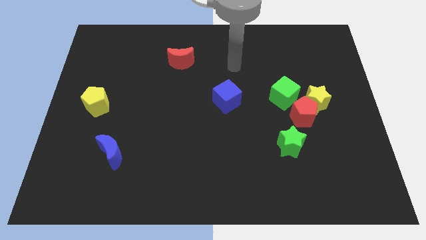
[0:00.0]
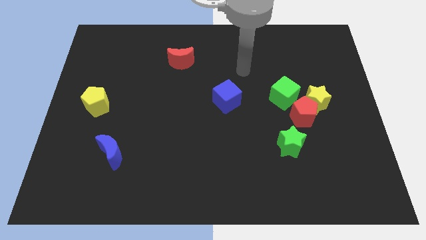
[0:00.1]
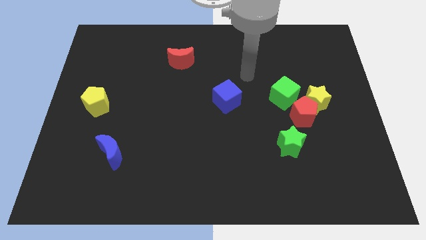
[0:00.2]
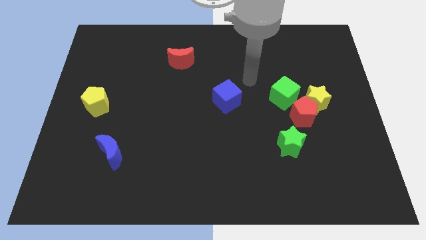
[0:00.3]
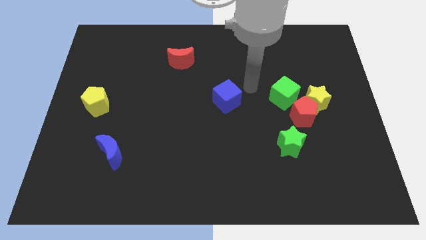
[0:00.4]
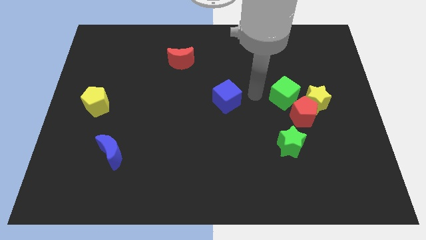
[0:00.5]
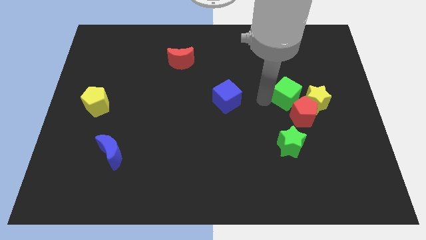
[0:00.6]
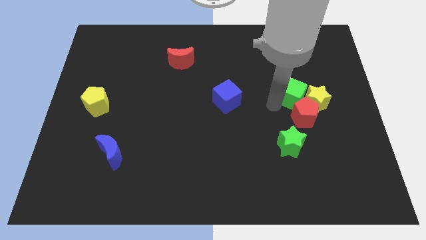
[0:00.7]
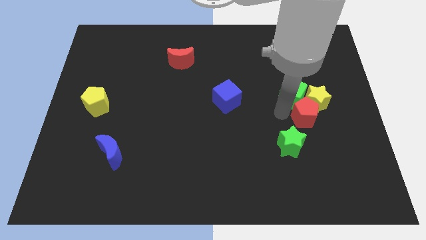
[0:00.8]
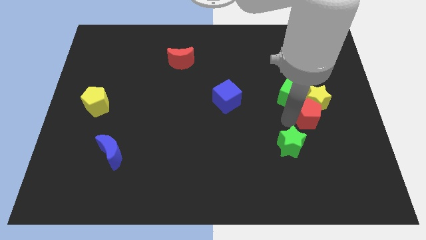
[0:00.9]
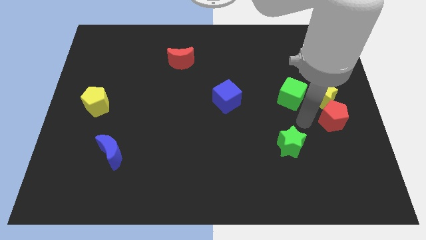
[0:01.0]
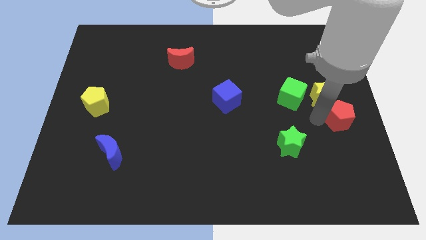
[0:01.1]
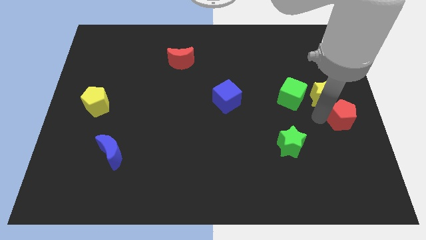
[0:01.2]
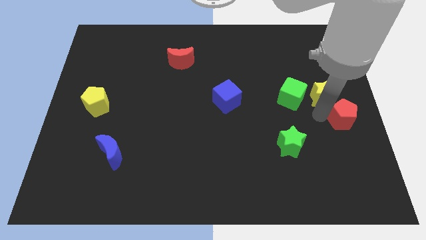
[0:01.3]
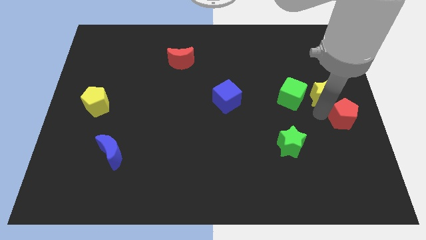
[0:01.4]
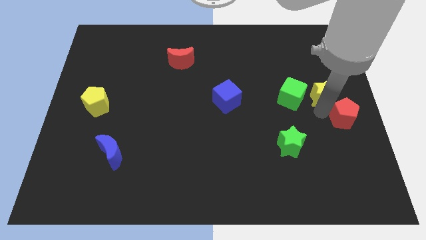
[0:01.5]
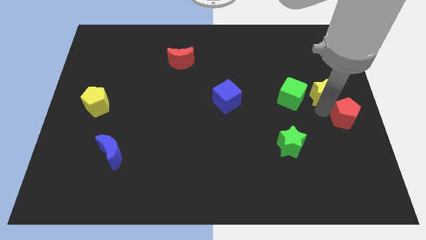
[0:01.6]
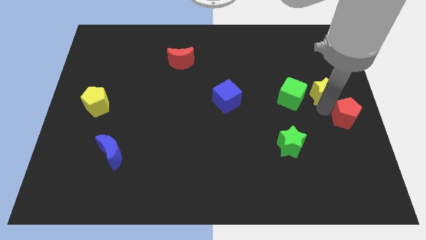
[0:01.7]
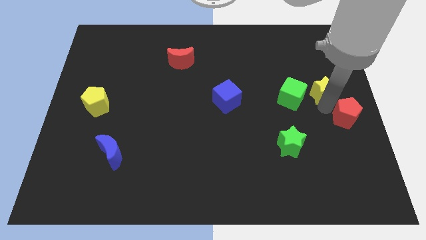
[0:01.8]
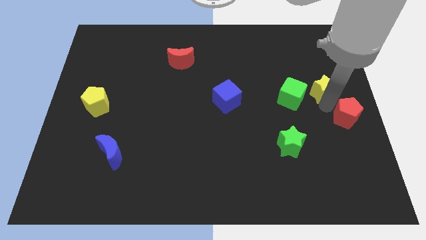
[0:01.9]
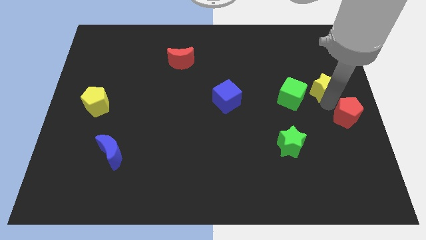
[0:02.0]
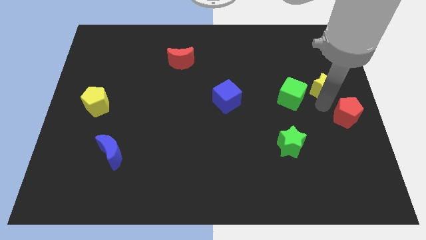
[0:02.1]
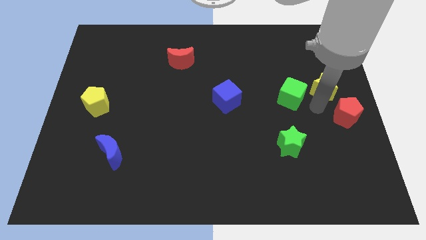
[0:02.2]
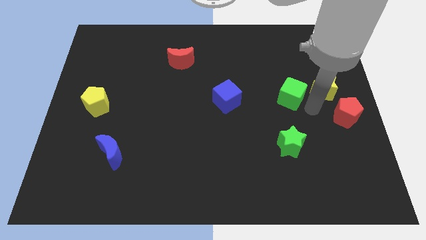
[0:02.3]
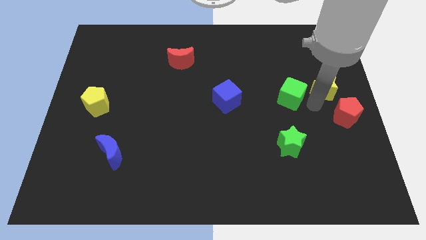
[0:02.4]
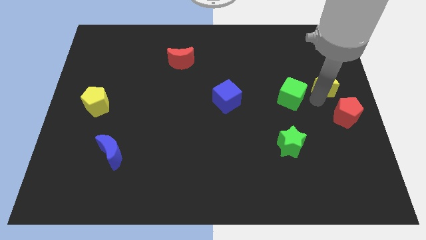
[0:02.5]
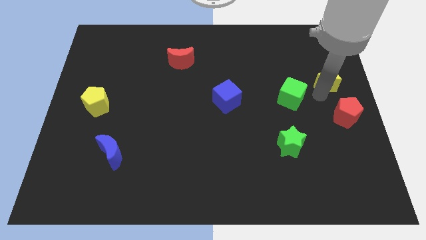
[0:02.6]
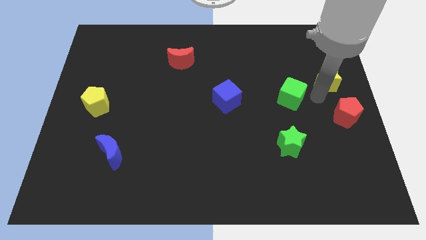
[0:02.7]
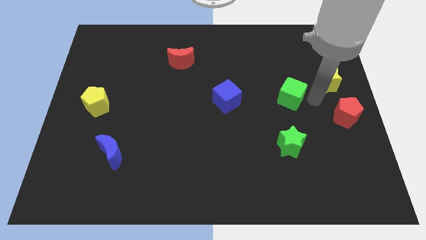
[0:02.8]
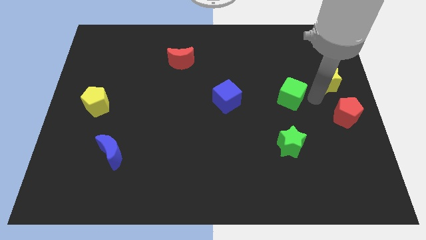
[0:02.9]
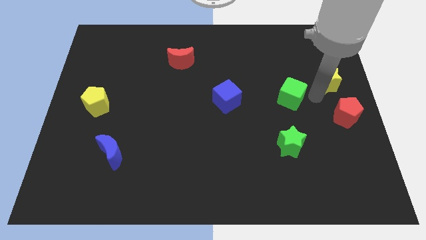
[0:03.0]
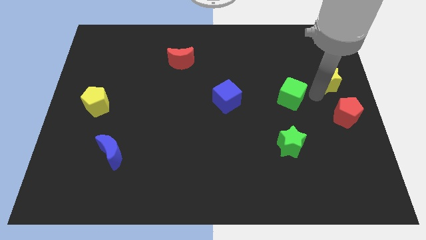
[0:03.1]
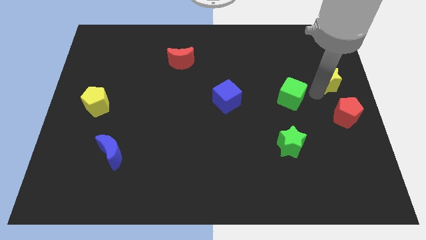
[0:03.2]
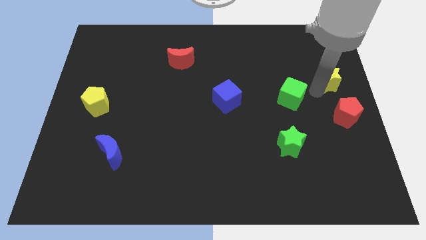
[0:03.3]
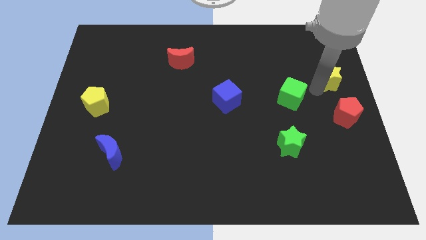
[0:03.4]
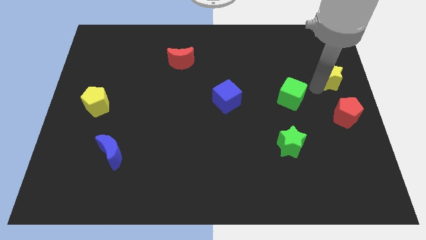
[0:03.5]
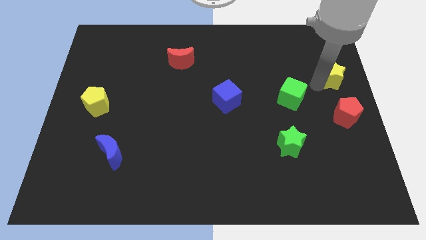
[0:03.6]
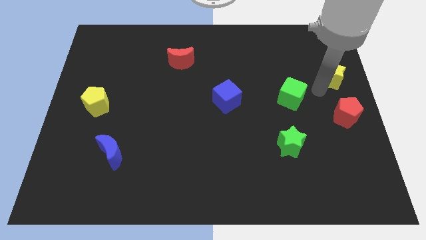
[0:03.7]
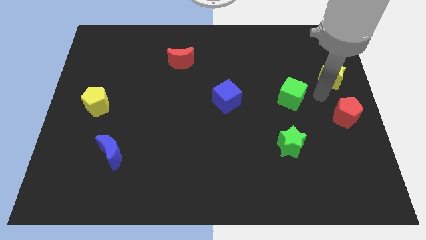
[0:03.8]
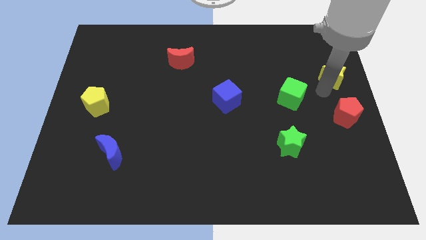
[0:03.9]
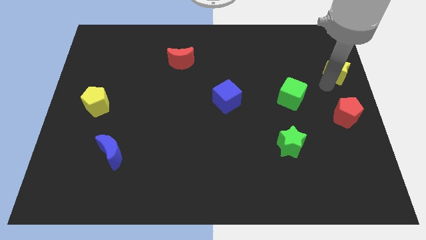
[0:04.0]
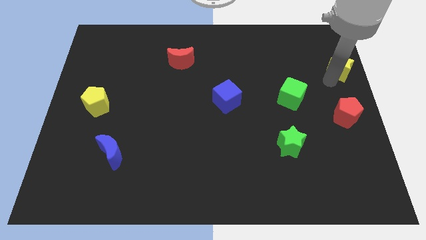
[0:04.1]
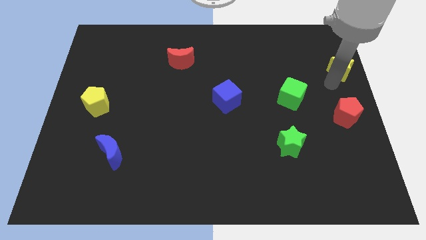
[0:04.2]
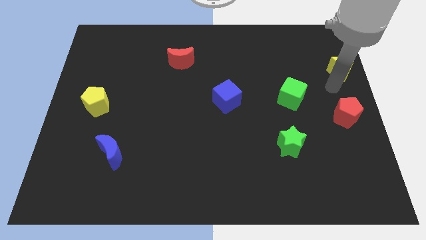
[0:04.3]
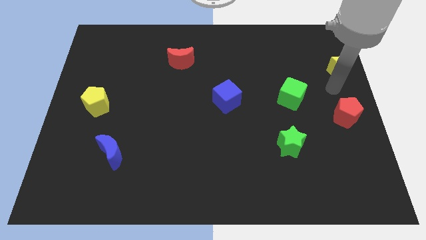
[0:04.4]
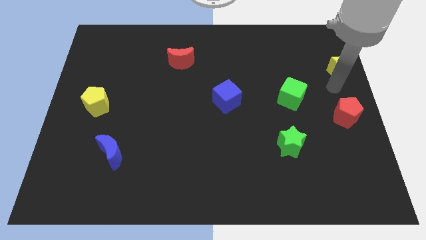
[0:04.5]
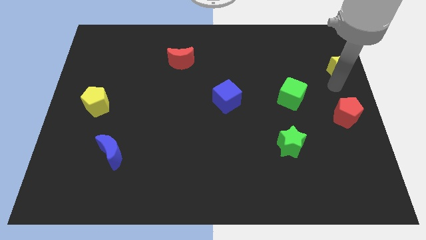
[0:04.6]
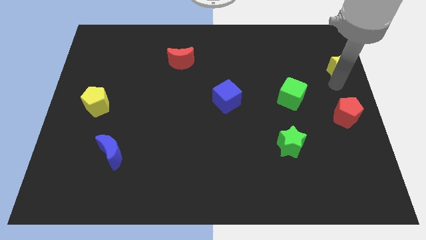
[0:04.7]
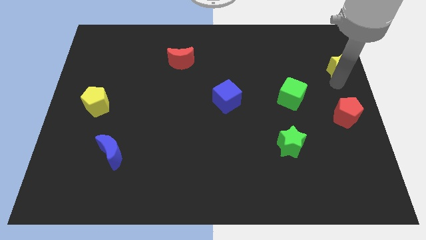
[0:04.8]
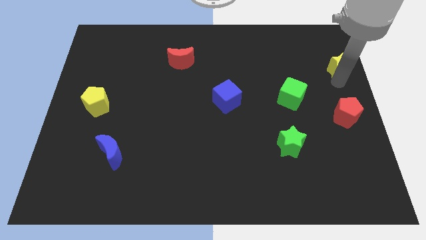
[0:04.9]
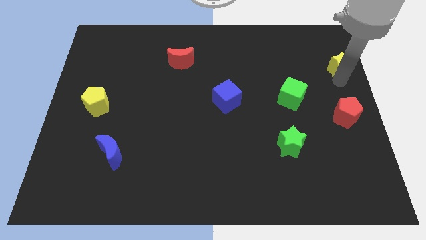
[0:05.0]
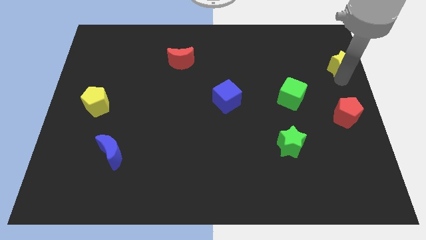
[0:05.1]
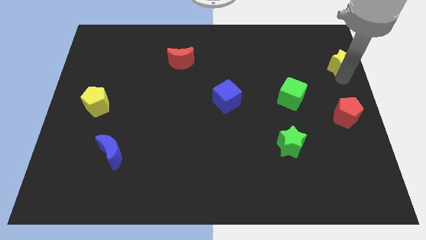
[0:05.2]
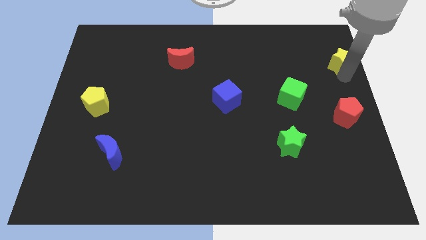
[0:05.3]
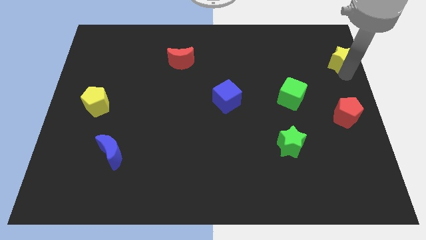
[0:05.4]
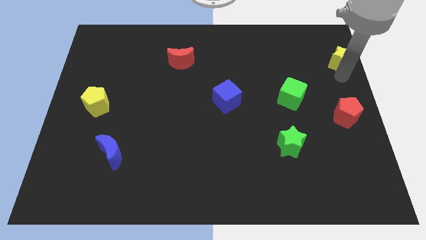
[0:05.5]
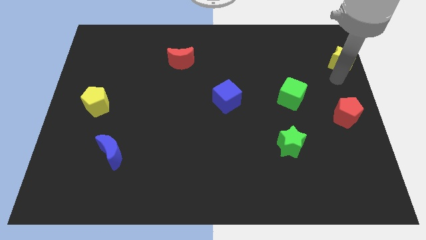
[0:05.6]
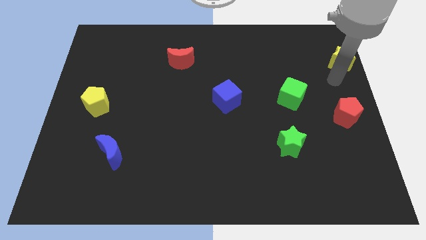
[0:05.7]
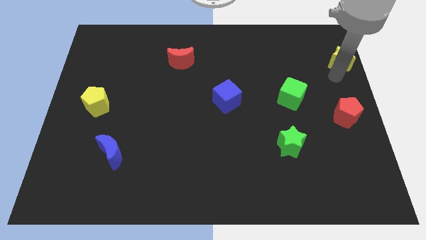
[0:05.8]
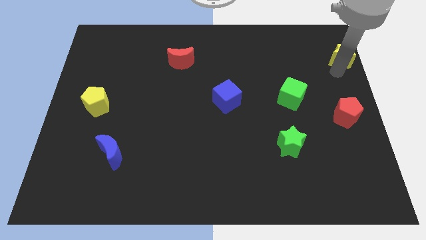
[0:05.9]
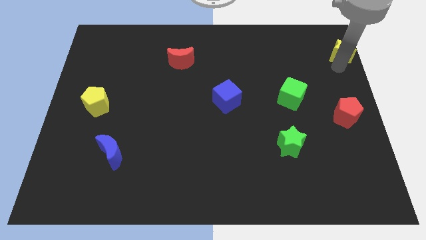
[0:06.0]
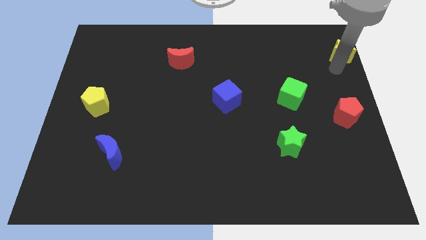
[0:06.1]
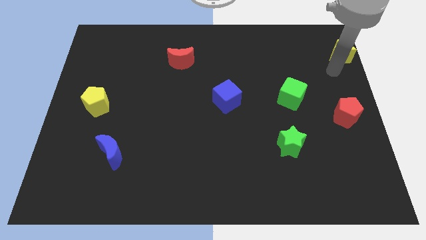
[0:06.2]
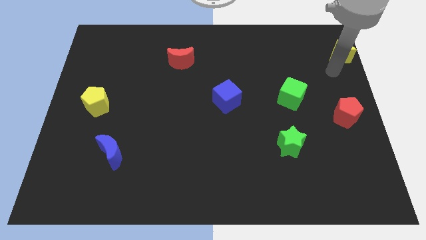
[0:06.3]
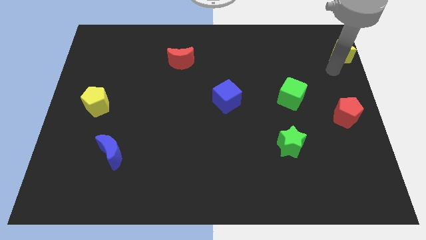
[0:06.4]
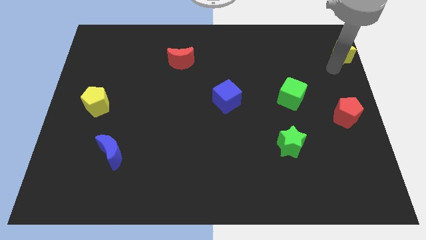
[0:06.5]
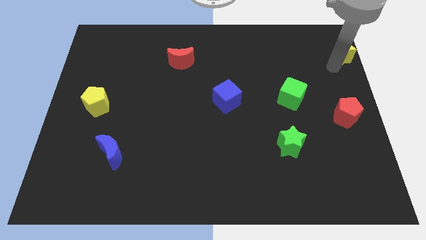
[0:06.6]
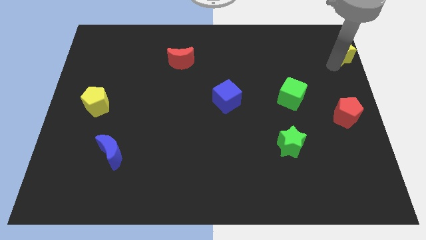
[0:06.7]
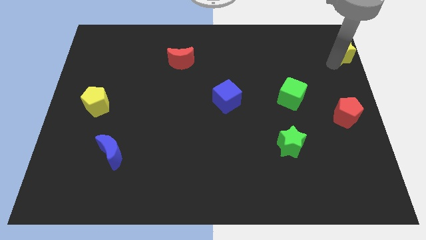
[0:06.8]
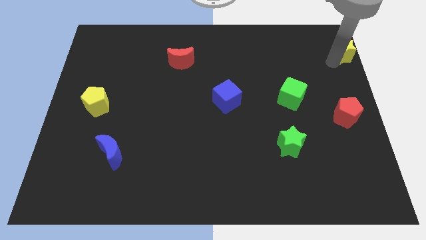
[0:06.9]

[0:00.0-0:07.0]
slide the yellow star to the upper right corner

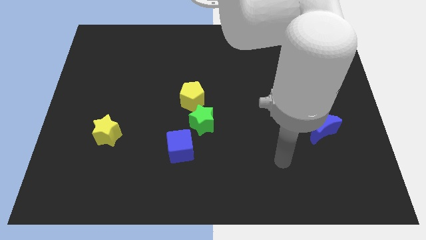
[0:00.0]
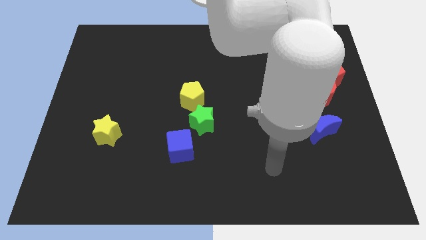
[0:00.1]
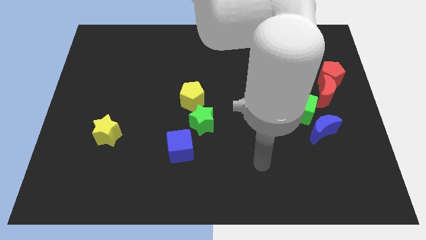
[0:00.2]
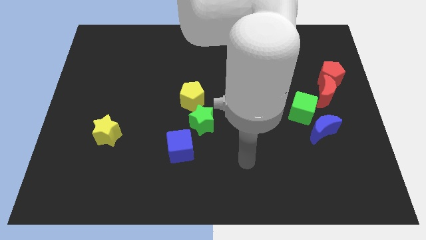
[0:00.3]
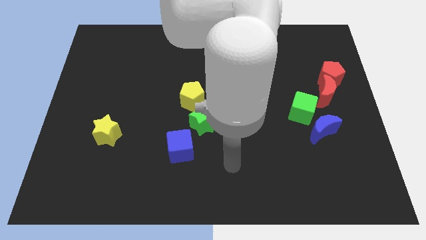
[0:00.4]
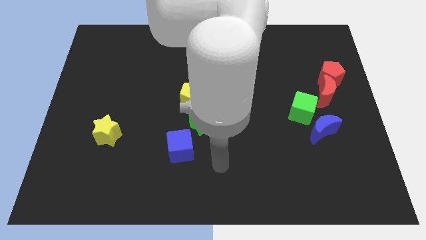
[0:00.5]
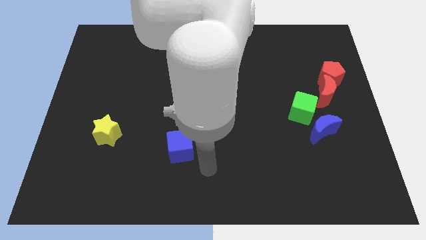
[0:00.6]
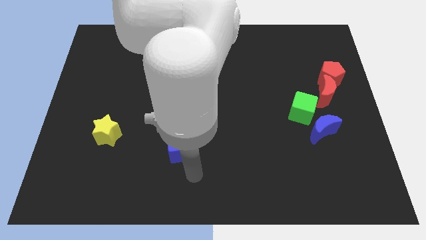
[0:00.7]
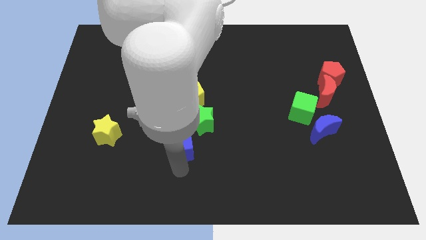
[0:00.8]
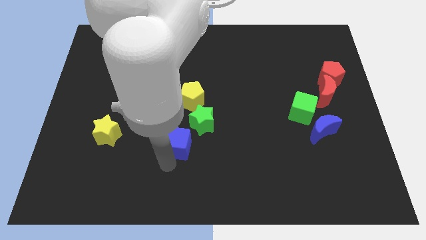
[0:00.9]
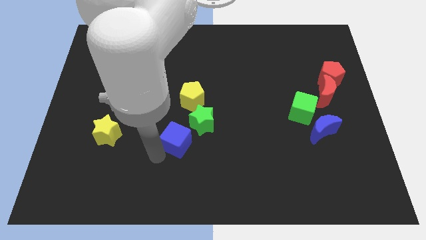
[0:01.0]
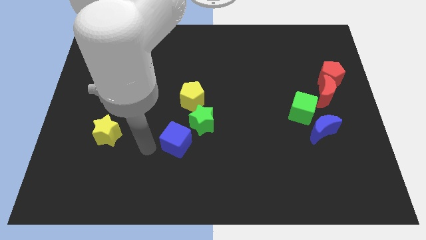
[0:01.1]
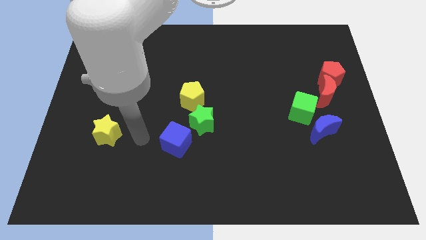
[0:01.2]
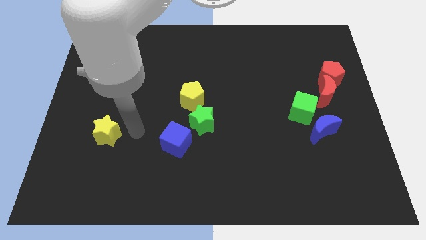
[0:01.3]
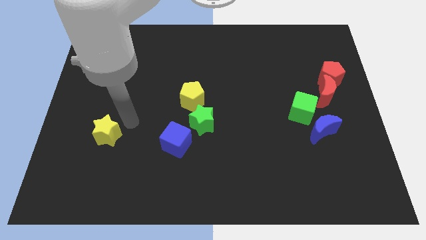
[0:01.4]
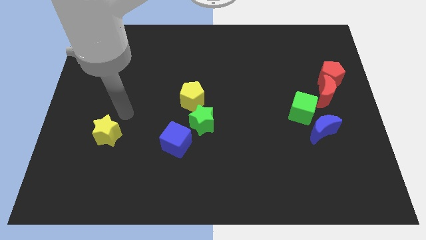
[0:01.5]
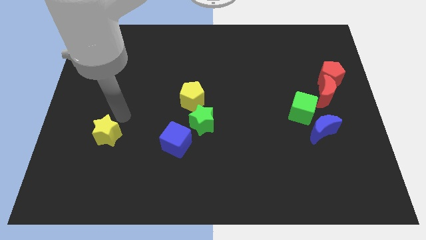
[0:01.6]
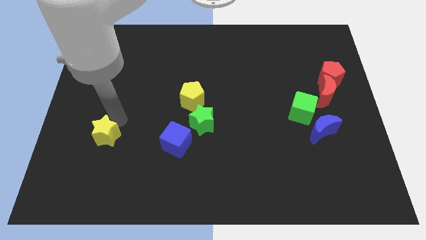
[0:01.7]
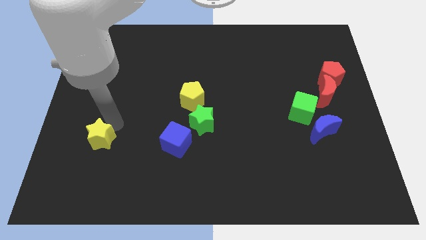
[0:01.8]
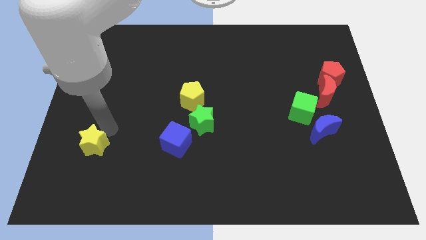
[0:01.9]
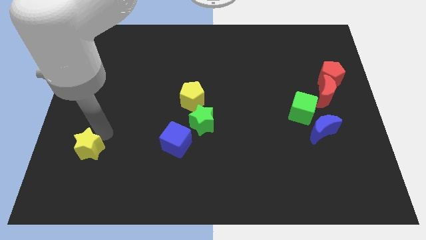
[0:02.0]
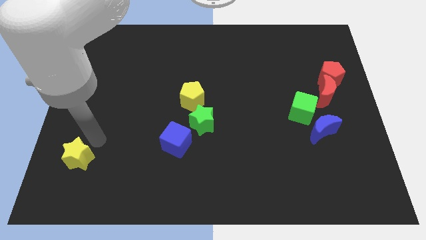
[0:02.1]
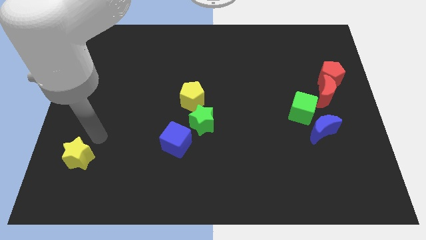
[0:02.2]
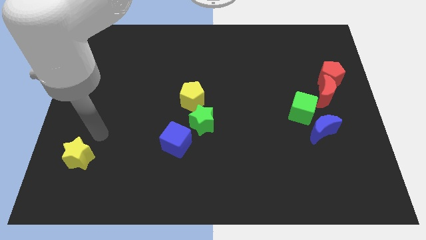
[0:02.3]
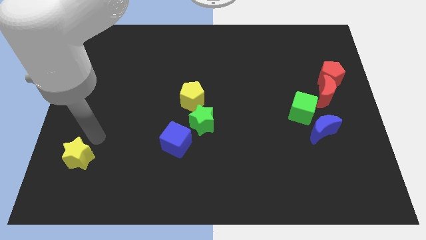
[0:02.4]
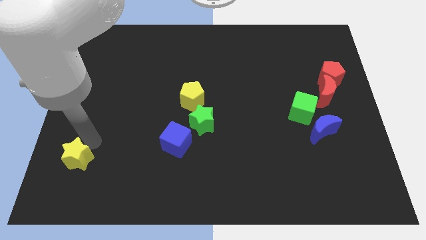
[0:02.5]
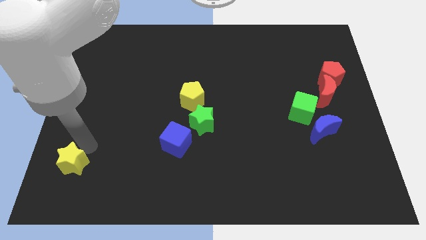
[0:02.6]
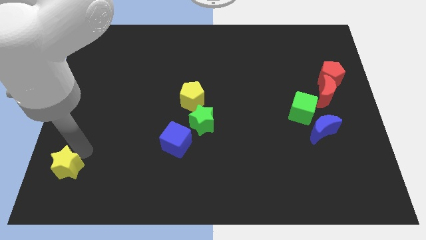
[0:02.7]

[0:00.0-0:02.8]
move the yellow star to the bottom left corner
